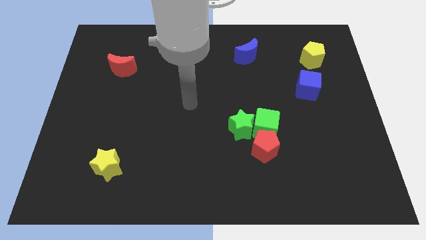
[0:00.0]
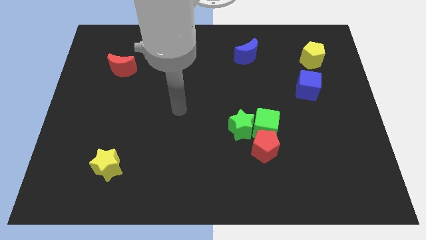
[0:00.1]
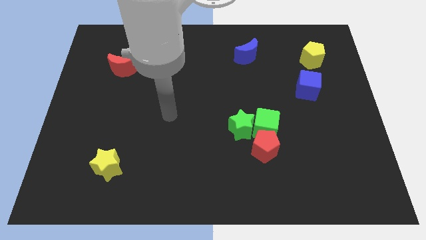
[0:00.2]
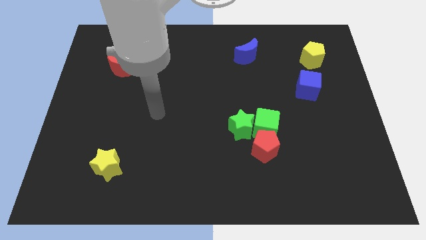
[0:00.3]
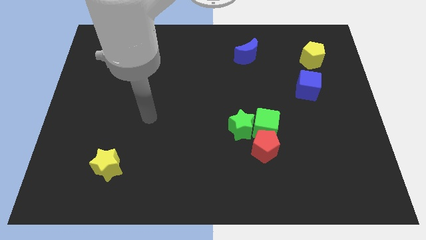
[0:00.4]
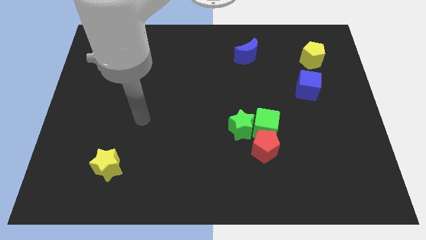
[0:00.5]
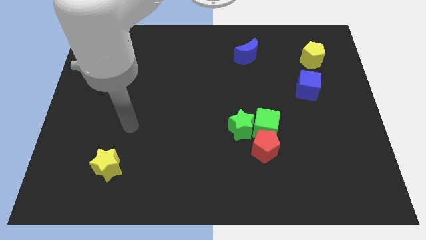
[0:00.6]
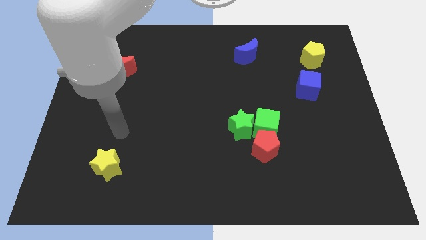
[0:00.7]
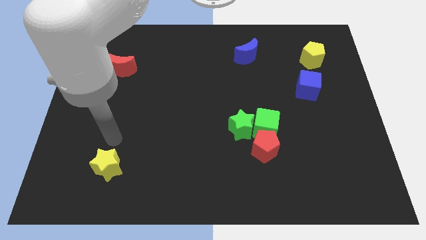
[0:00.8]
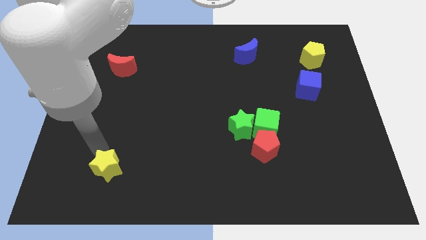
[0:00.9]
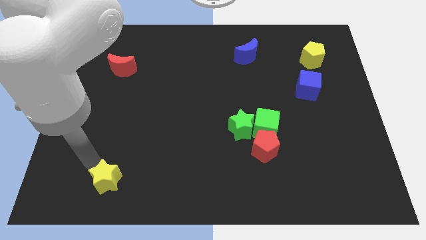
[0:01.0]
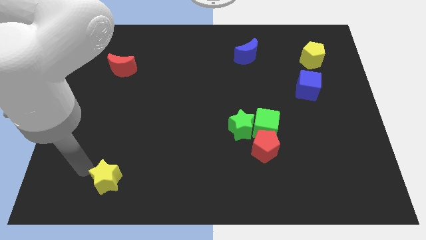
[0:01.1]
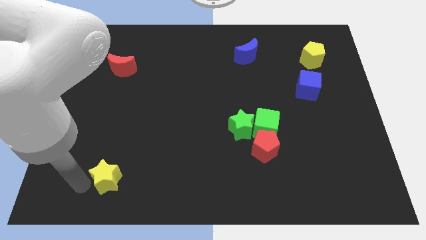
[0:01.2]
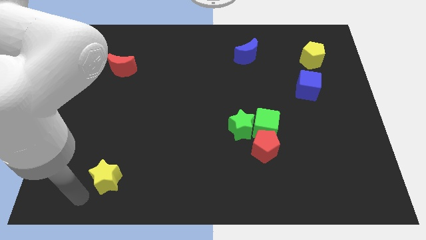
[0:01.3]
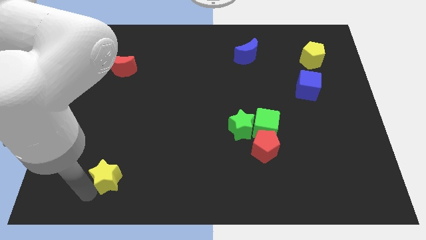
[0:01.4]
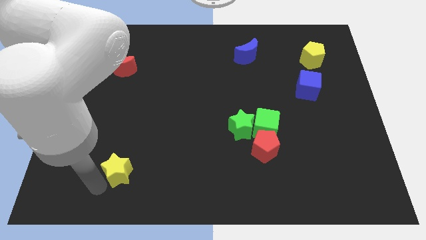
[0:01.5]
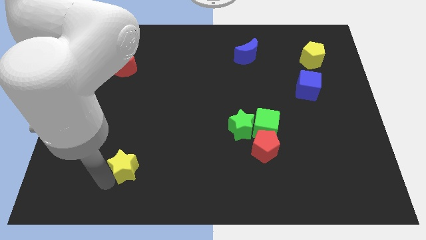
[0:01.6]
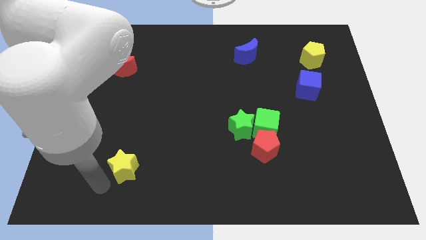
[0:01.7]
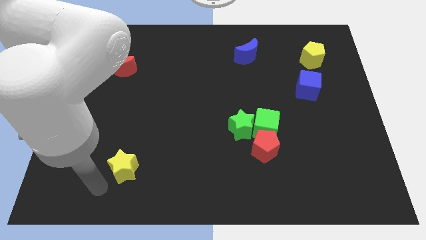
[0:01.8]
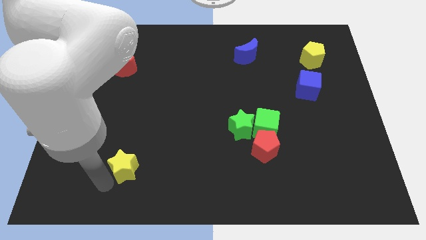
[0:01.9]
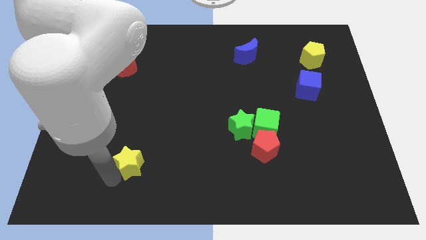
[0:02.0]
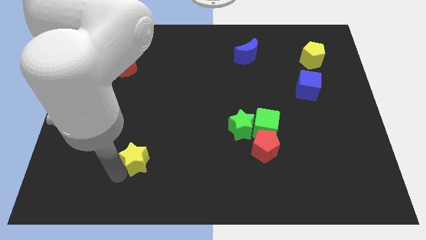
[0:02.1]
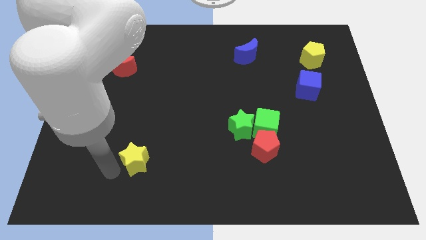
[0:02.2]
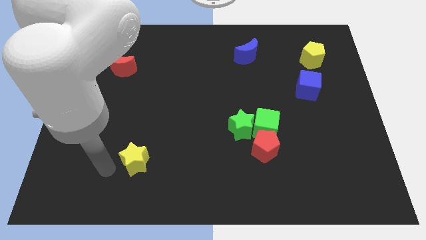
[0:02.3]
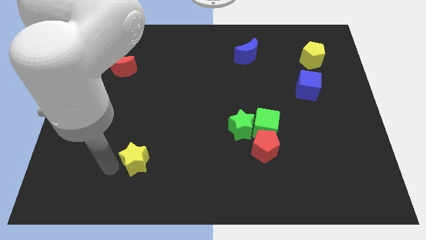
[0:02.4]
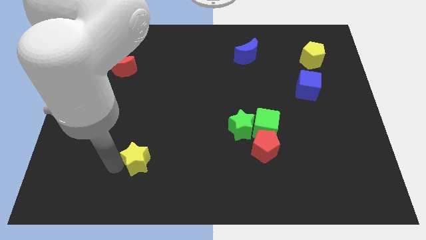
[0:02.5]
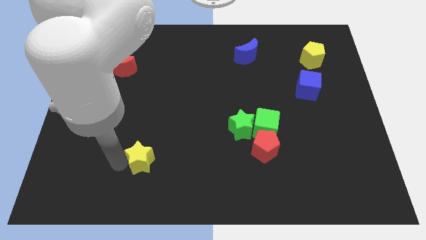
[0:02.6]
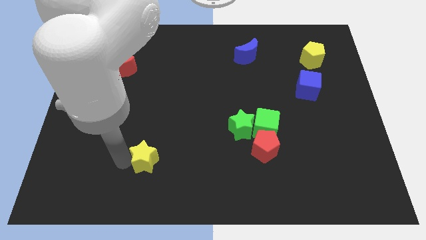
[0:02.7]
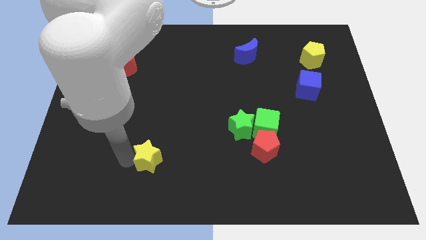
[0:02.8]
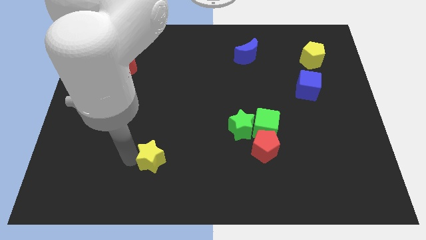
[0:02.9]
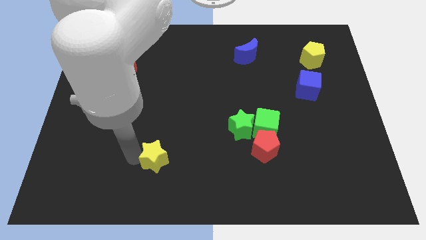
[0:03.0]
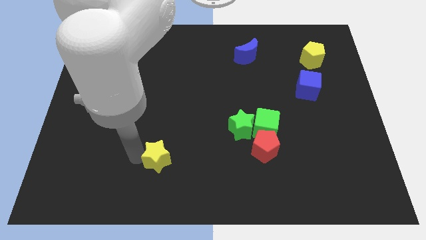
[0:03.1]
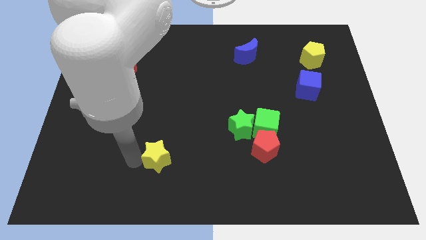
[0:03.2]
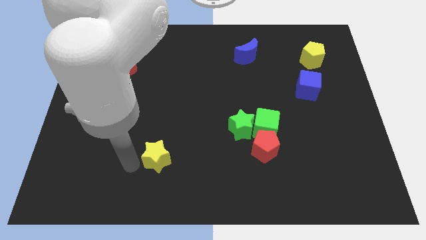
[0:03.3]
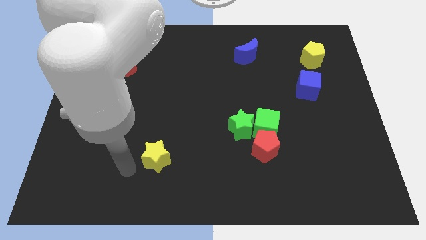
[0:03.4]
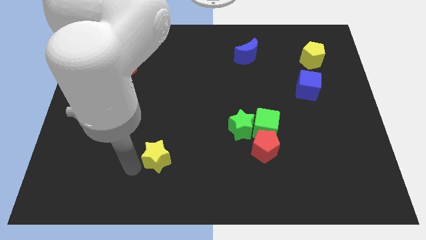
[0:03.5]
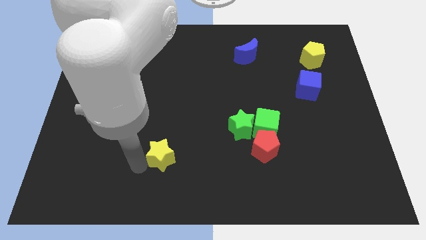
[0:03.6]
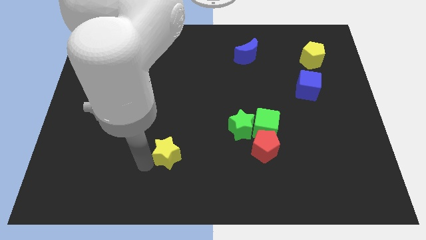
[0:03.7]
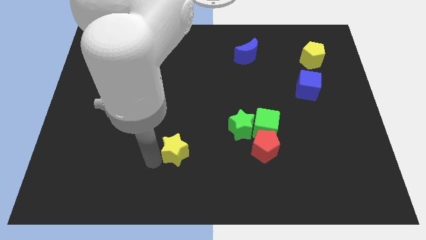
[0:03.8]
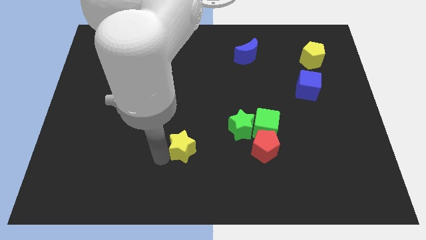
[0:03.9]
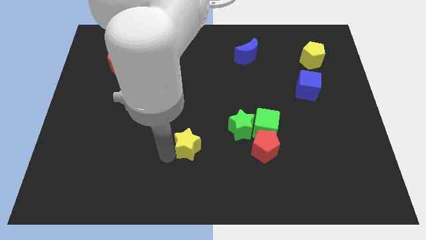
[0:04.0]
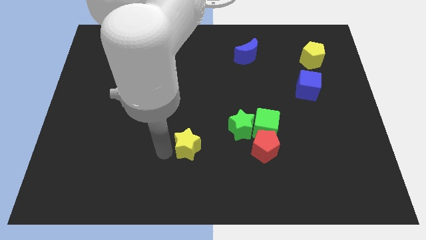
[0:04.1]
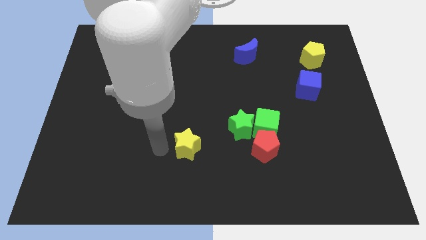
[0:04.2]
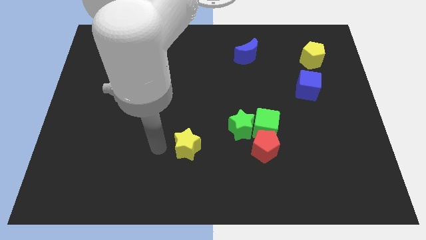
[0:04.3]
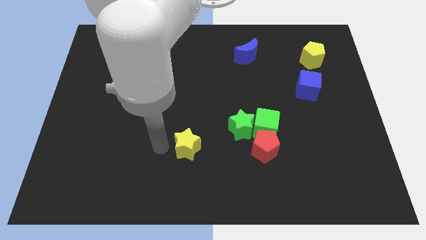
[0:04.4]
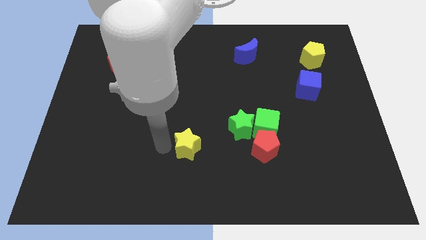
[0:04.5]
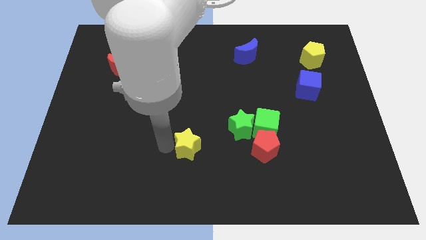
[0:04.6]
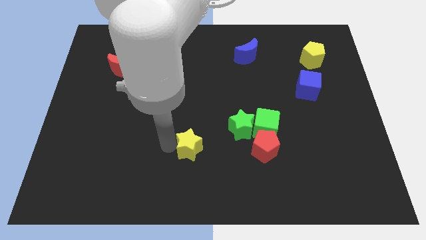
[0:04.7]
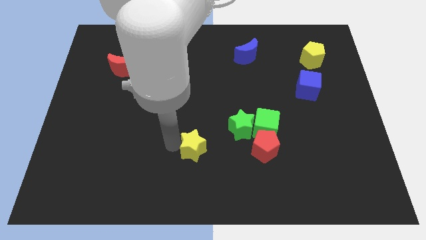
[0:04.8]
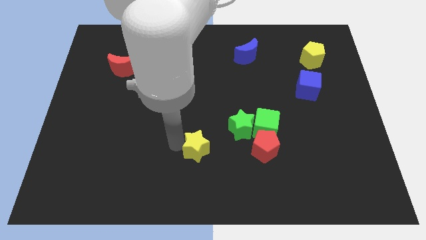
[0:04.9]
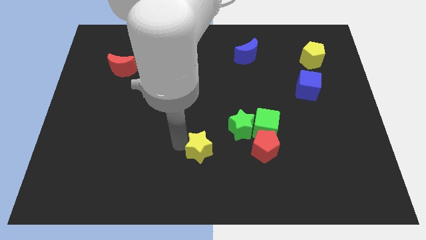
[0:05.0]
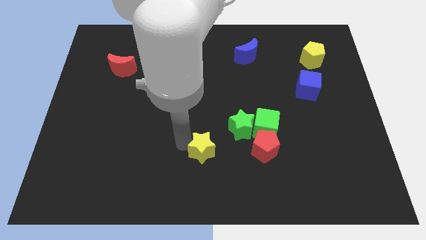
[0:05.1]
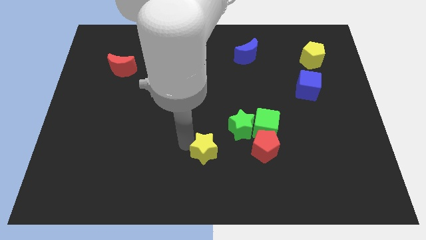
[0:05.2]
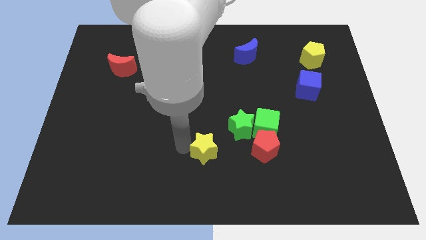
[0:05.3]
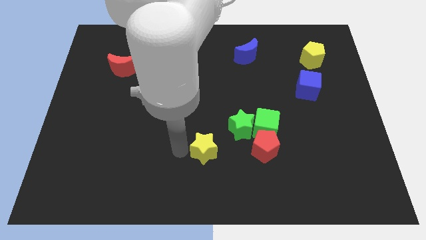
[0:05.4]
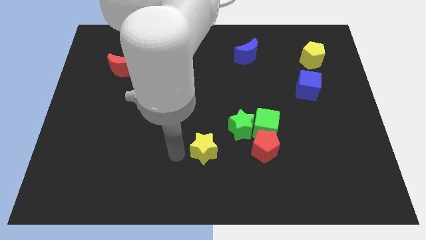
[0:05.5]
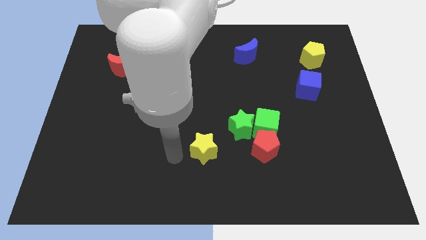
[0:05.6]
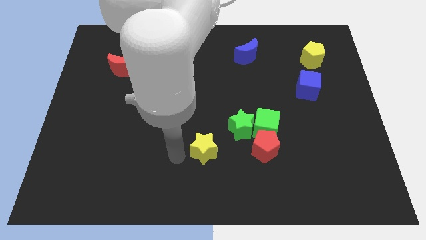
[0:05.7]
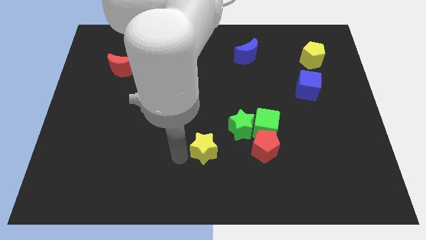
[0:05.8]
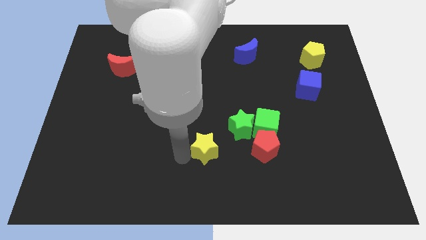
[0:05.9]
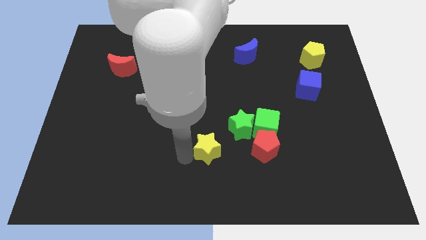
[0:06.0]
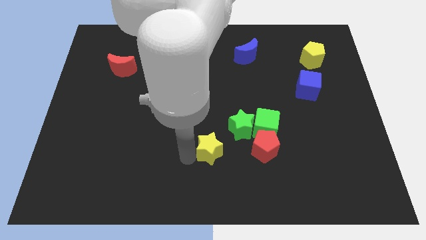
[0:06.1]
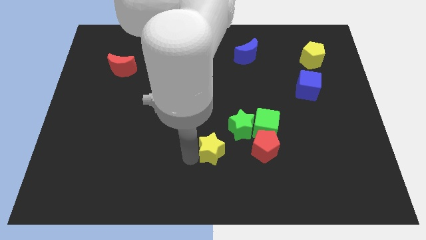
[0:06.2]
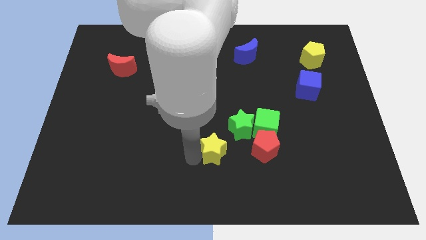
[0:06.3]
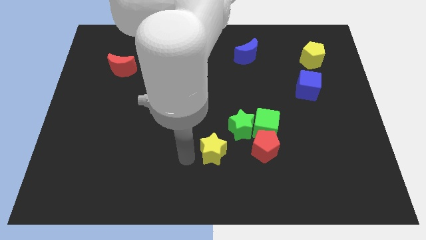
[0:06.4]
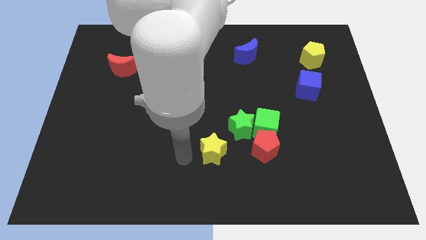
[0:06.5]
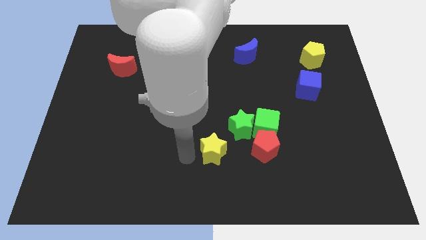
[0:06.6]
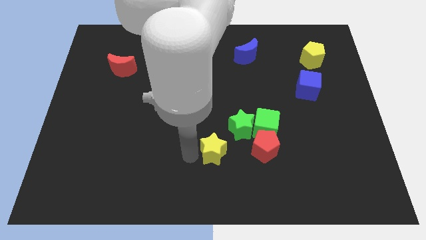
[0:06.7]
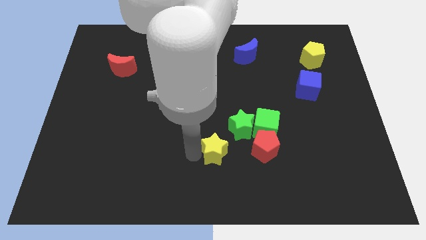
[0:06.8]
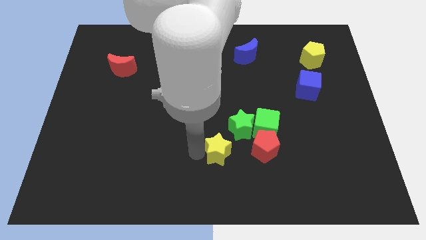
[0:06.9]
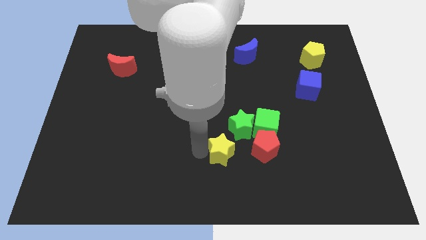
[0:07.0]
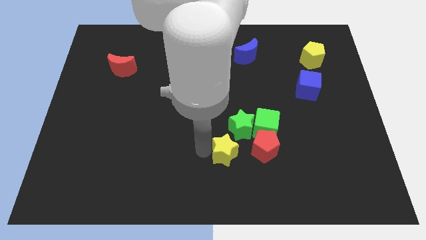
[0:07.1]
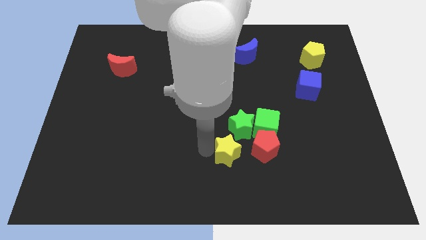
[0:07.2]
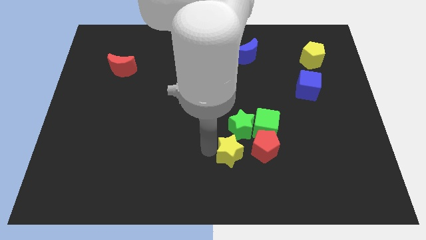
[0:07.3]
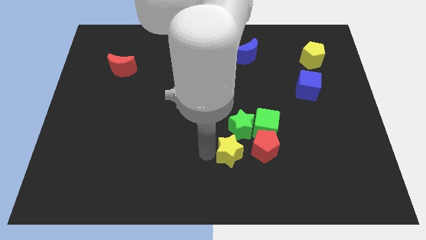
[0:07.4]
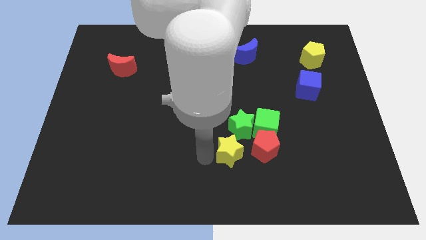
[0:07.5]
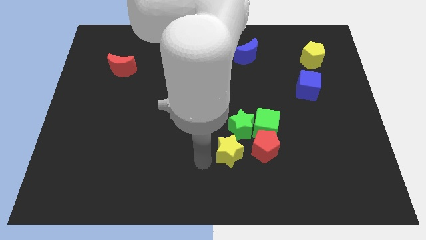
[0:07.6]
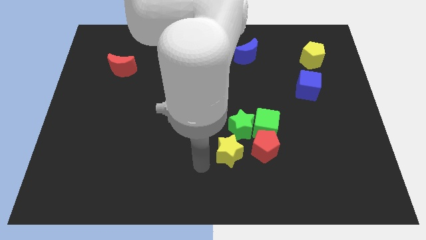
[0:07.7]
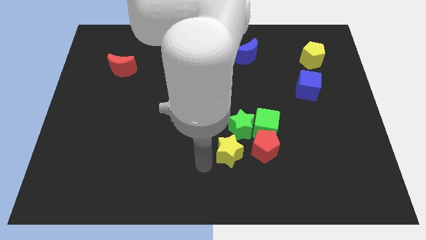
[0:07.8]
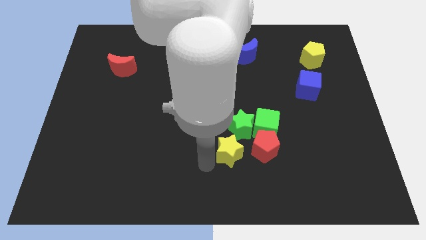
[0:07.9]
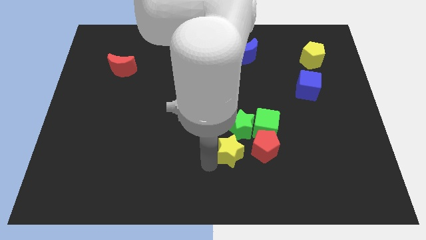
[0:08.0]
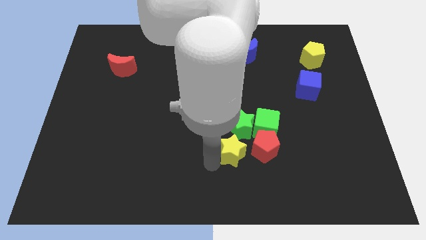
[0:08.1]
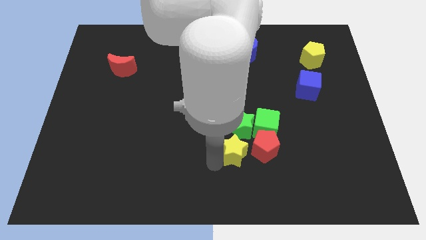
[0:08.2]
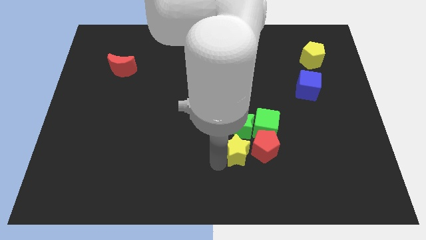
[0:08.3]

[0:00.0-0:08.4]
put the yellow star towards the red pentagon
